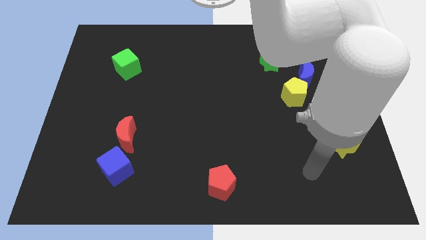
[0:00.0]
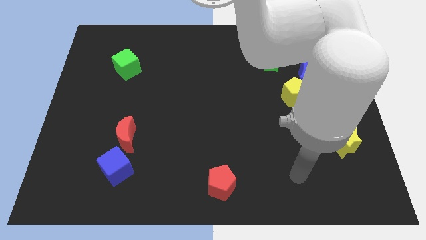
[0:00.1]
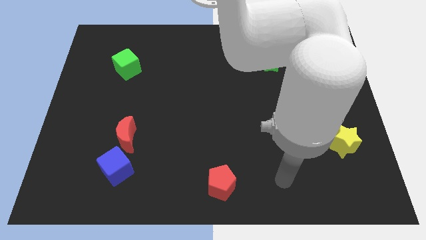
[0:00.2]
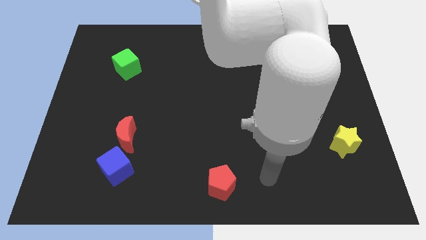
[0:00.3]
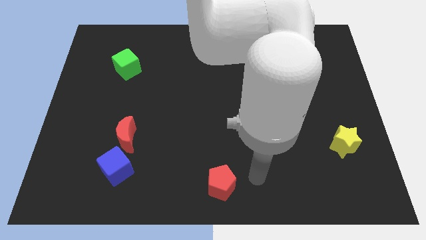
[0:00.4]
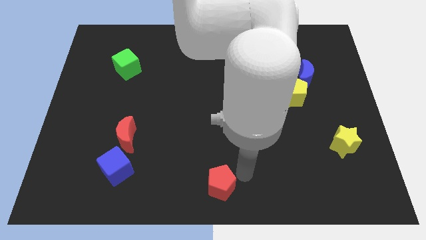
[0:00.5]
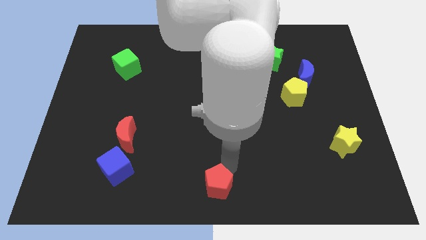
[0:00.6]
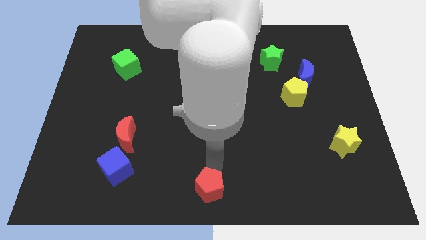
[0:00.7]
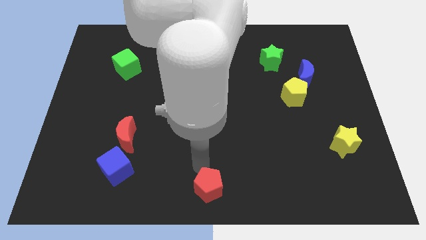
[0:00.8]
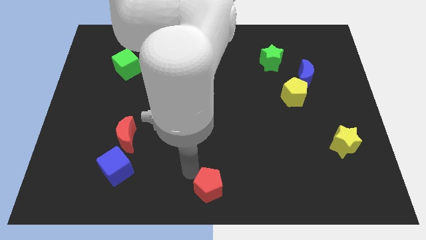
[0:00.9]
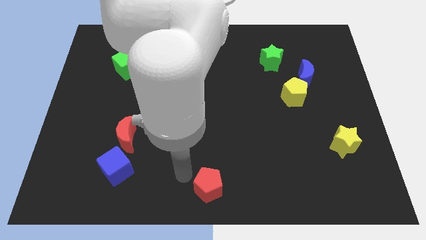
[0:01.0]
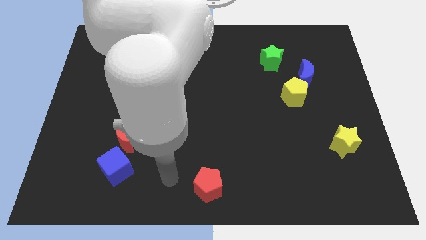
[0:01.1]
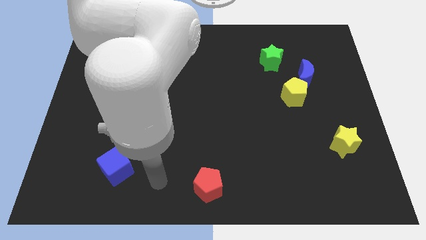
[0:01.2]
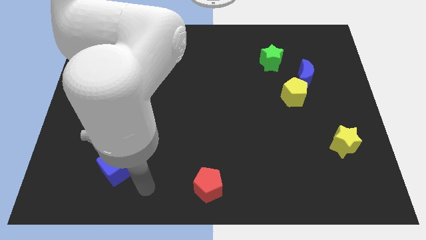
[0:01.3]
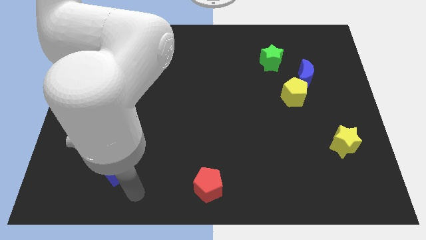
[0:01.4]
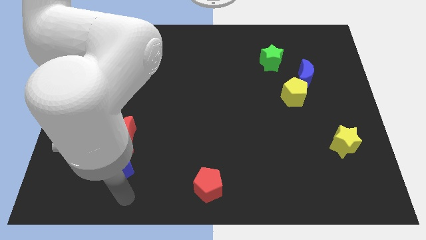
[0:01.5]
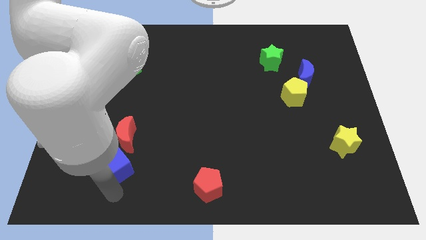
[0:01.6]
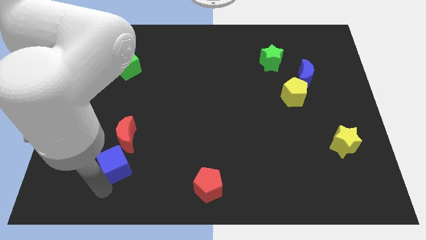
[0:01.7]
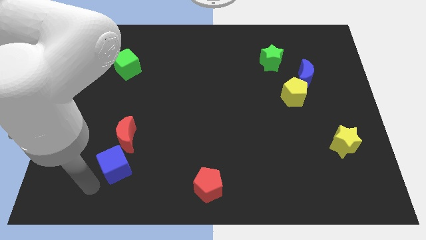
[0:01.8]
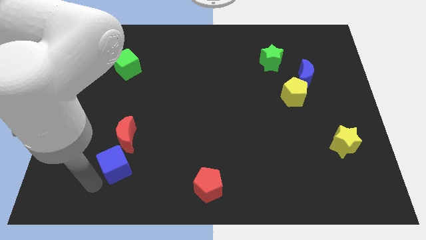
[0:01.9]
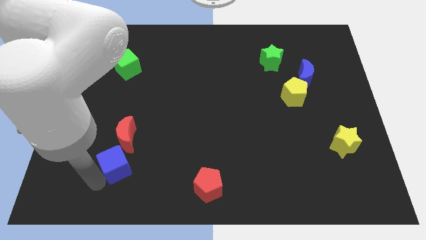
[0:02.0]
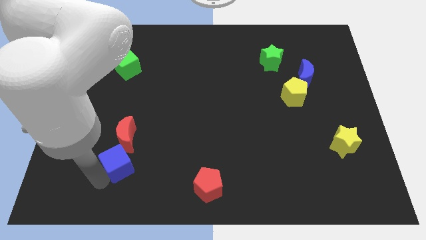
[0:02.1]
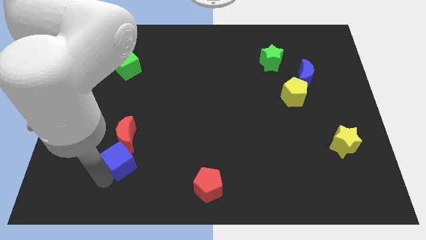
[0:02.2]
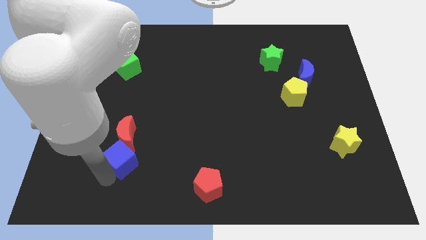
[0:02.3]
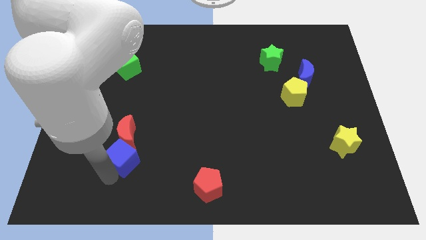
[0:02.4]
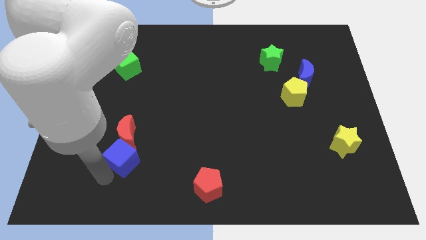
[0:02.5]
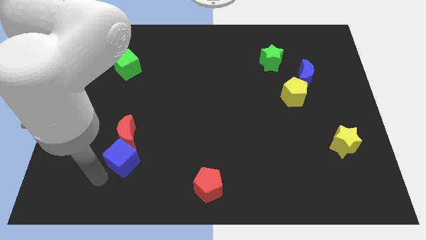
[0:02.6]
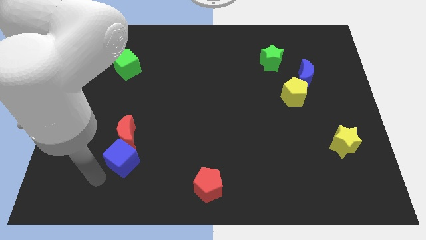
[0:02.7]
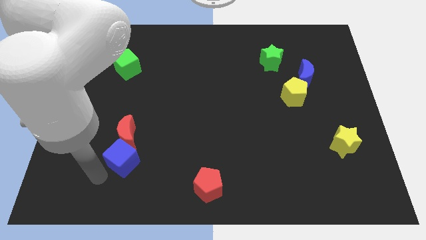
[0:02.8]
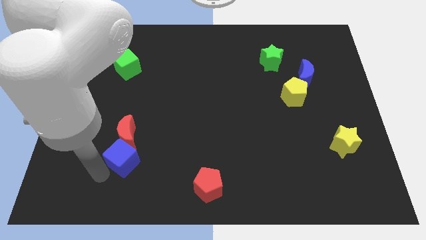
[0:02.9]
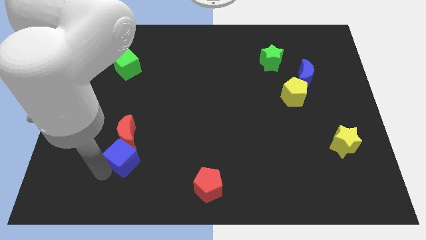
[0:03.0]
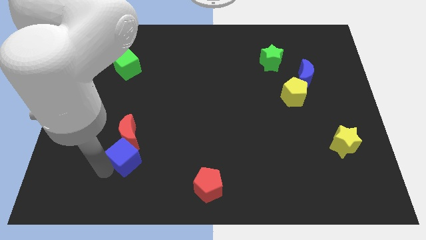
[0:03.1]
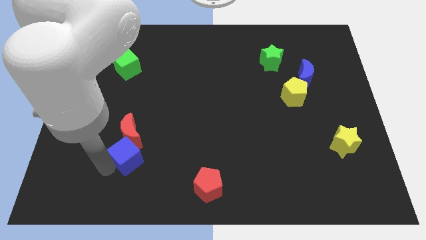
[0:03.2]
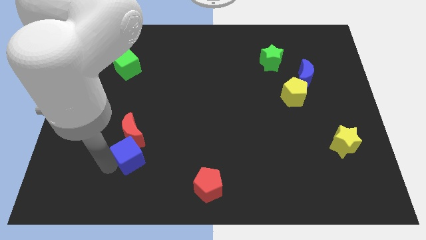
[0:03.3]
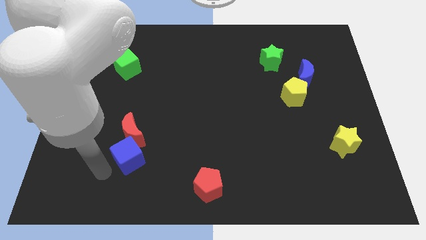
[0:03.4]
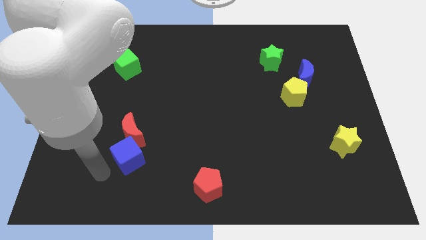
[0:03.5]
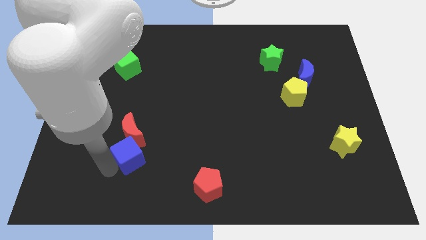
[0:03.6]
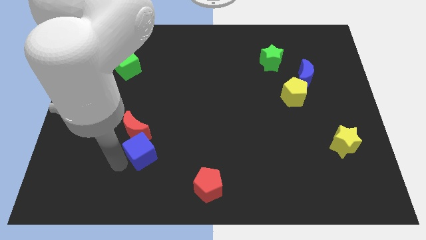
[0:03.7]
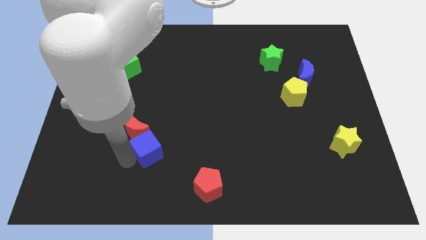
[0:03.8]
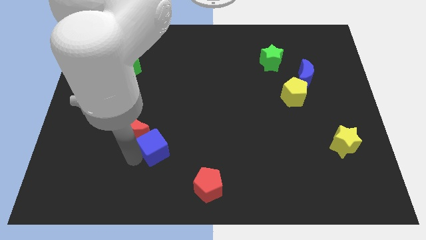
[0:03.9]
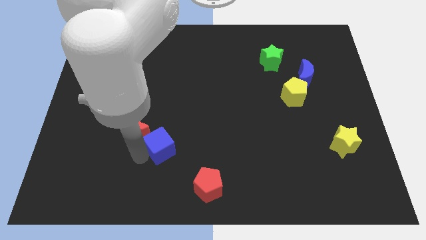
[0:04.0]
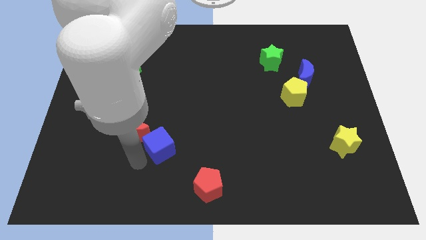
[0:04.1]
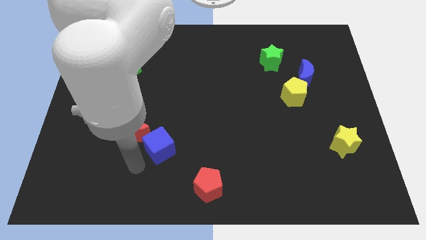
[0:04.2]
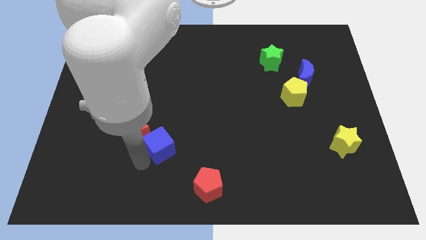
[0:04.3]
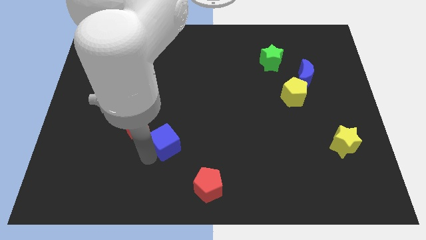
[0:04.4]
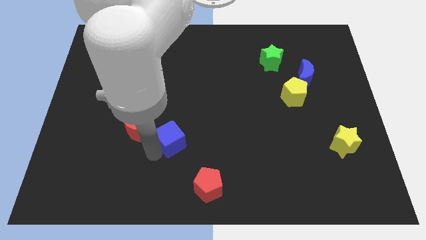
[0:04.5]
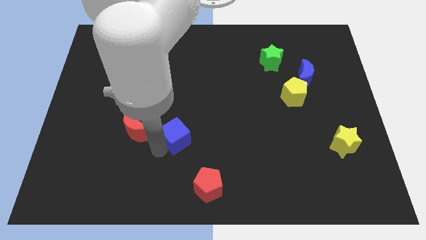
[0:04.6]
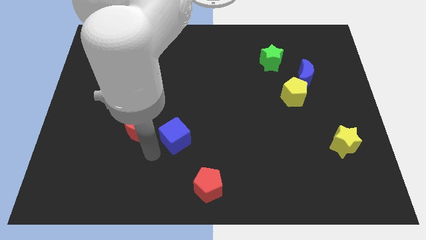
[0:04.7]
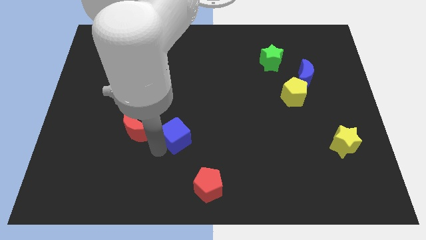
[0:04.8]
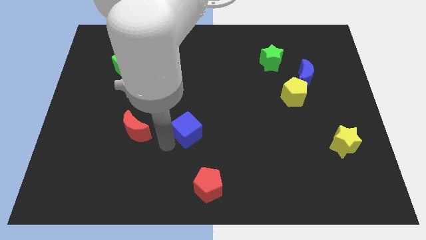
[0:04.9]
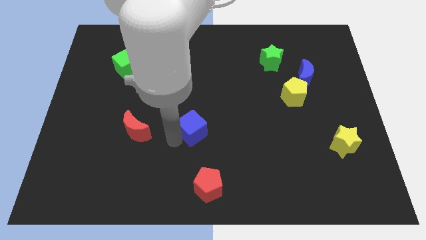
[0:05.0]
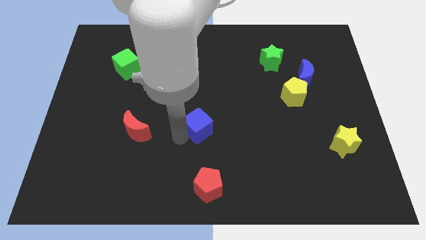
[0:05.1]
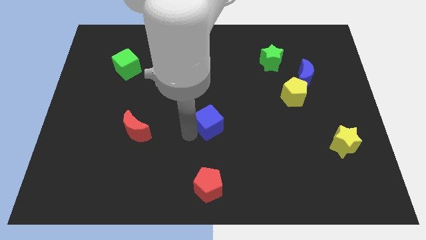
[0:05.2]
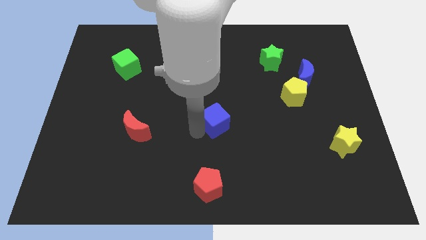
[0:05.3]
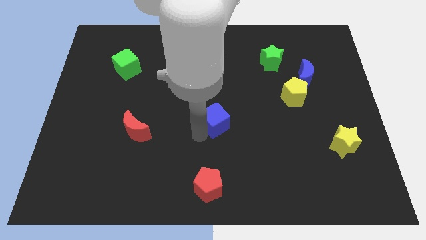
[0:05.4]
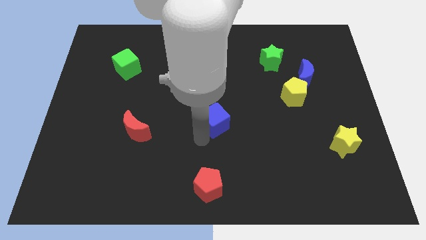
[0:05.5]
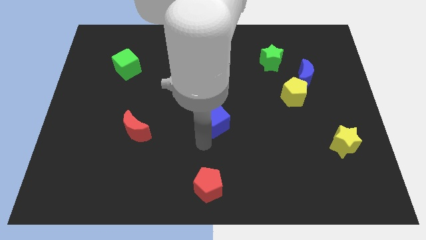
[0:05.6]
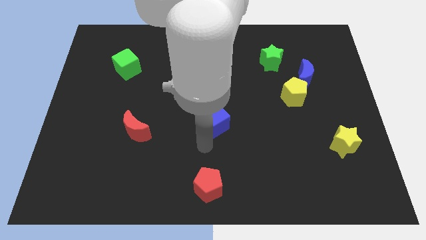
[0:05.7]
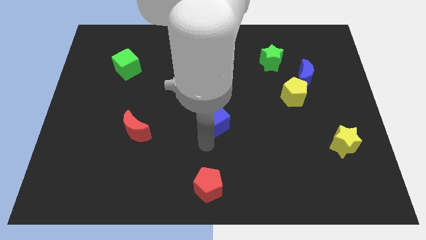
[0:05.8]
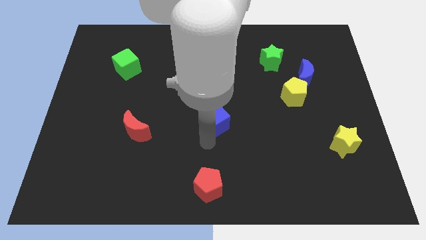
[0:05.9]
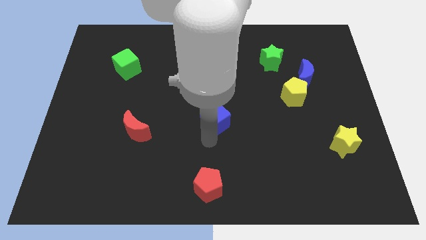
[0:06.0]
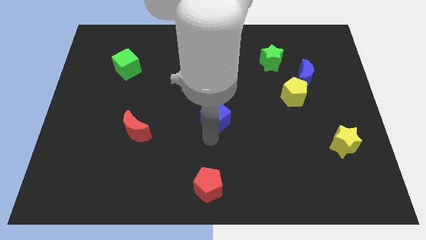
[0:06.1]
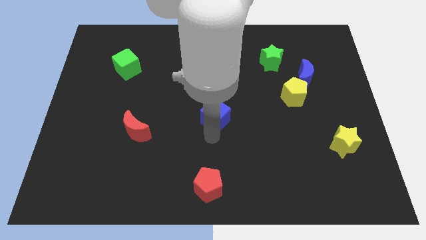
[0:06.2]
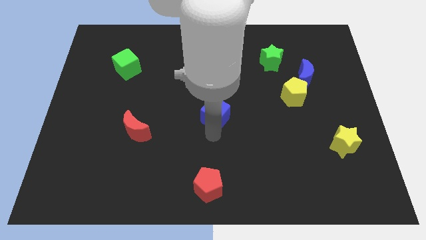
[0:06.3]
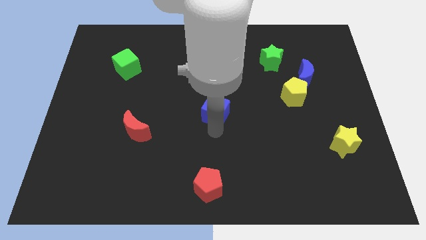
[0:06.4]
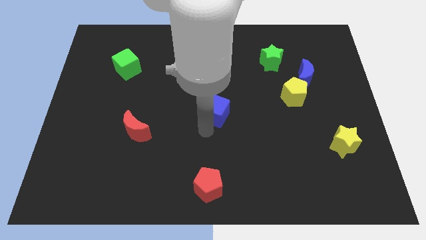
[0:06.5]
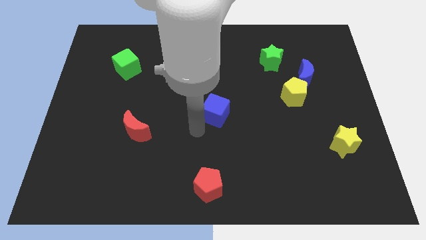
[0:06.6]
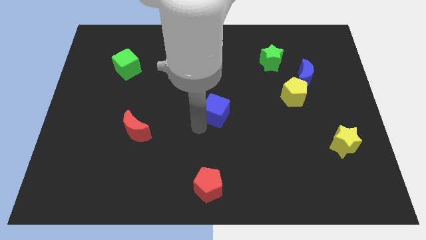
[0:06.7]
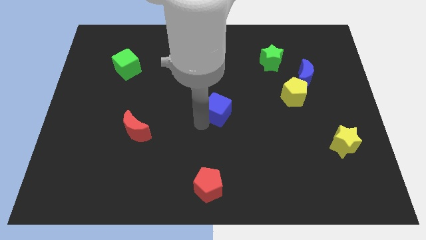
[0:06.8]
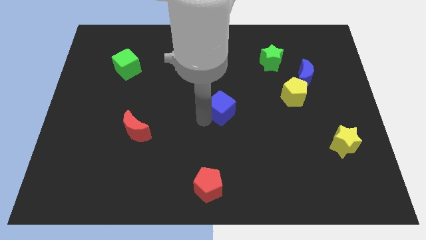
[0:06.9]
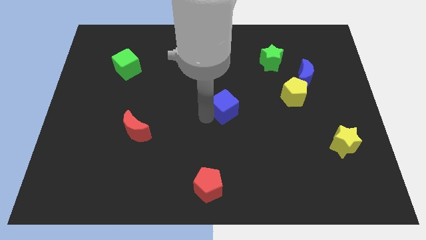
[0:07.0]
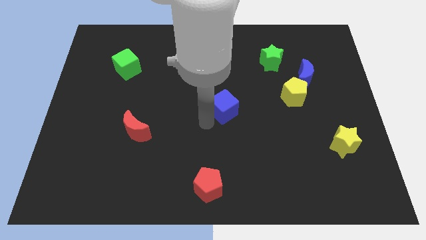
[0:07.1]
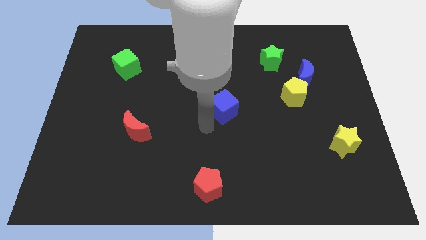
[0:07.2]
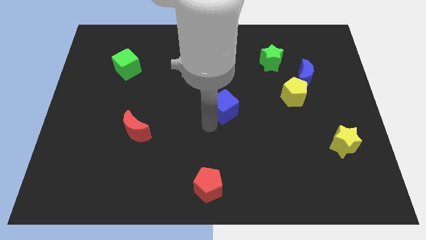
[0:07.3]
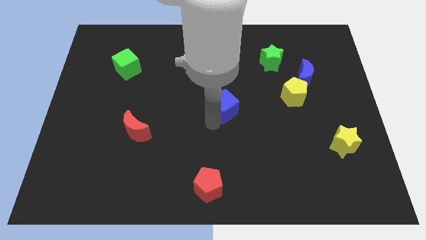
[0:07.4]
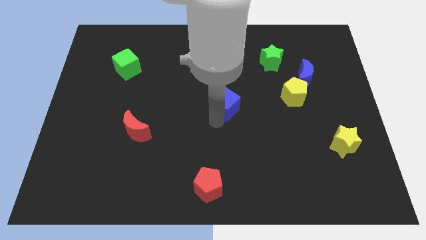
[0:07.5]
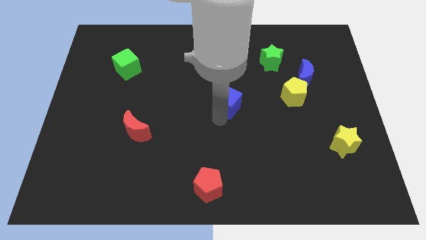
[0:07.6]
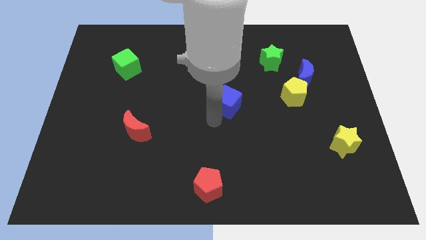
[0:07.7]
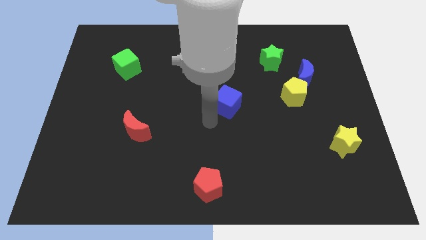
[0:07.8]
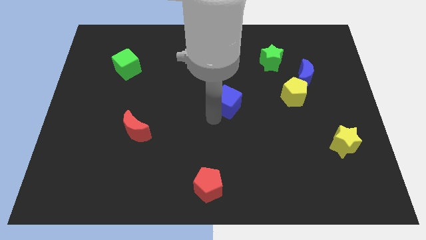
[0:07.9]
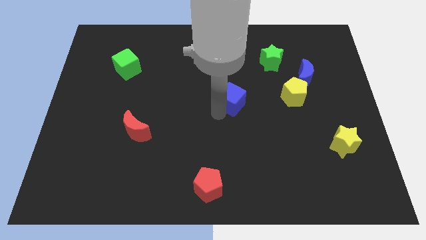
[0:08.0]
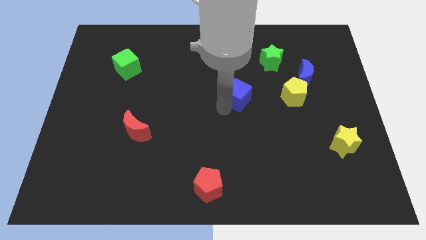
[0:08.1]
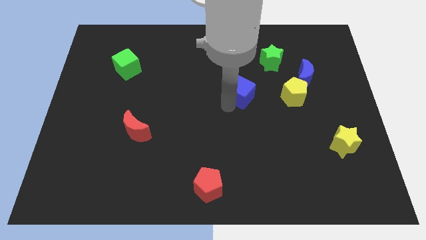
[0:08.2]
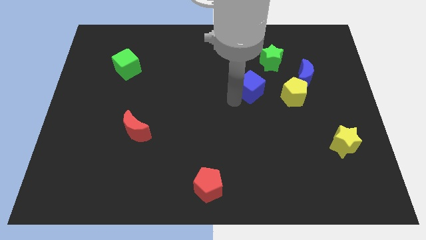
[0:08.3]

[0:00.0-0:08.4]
slide the blue cube just left of the blue moon
